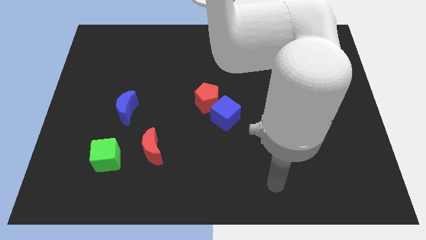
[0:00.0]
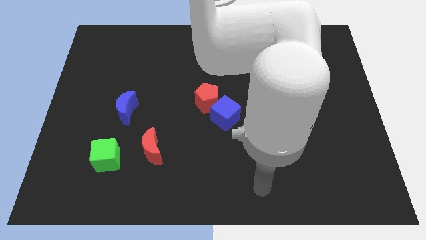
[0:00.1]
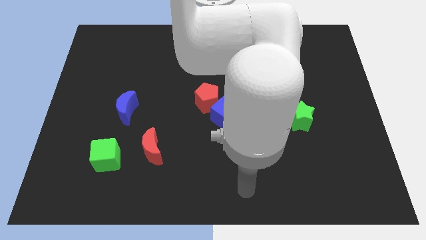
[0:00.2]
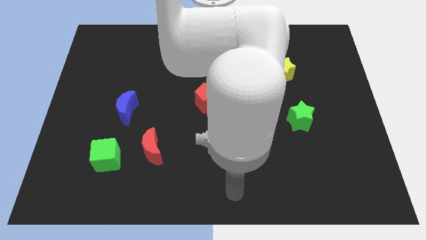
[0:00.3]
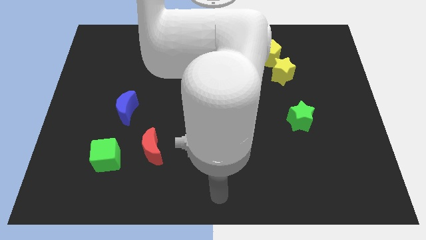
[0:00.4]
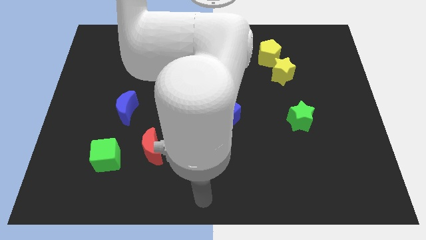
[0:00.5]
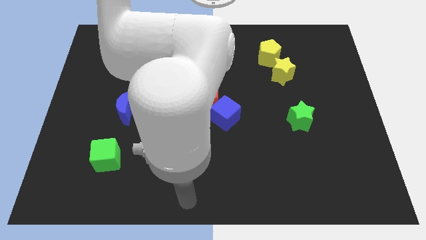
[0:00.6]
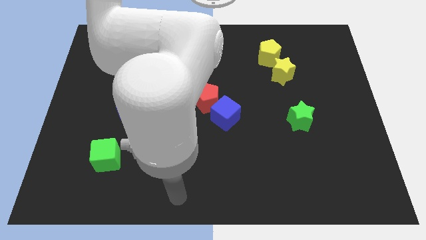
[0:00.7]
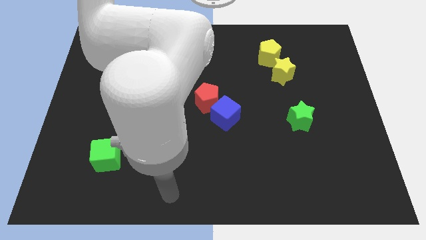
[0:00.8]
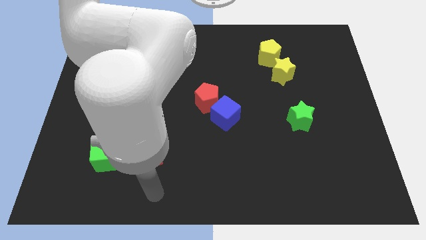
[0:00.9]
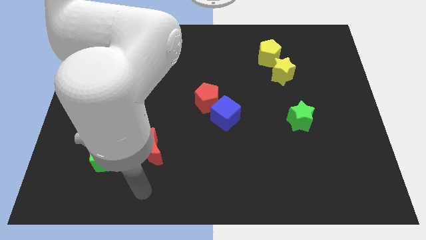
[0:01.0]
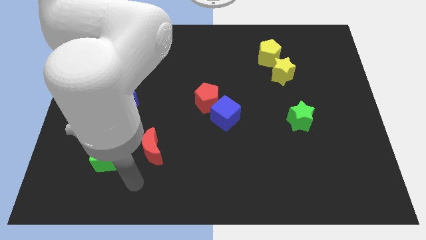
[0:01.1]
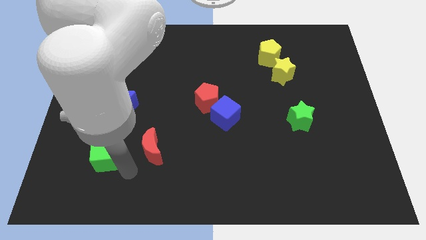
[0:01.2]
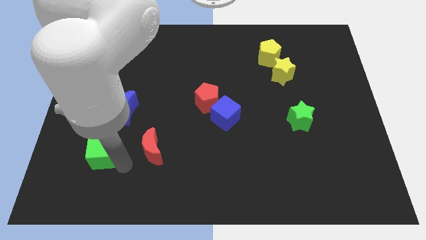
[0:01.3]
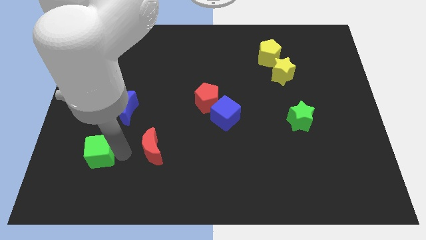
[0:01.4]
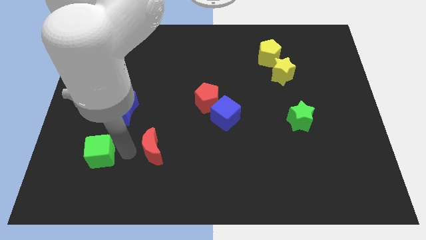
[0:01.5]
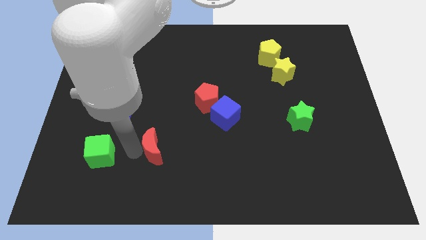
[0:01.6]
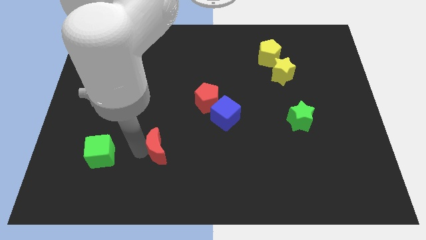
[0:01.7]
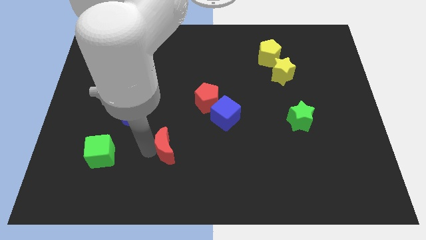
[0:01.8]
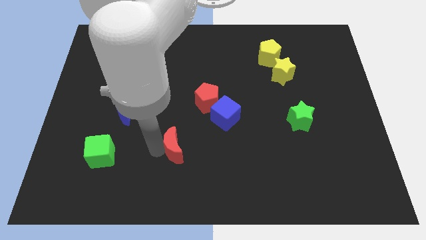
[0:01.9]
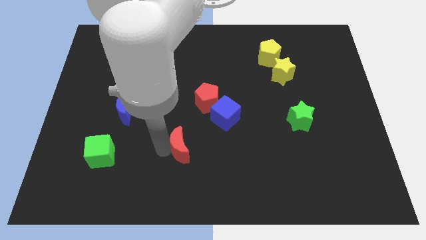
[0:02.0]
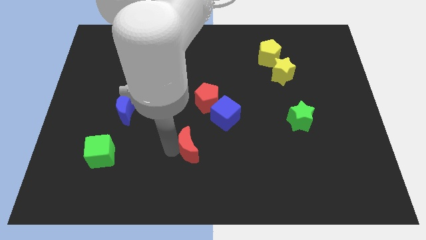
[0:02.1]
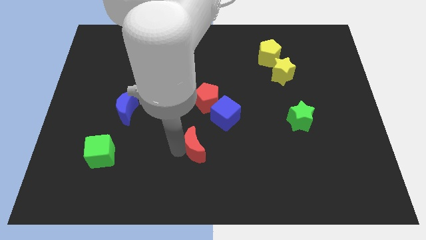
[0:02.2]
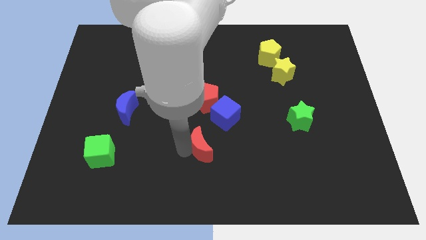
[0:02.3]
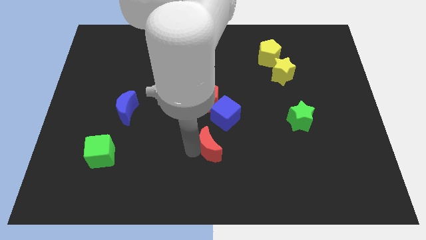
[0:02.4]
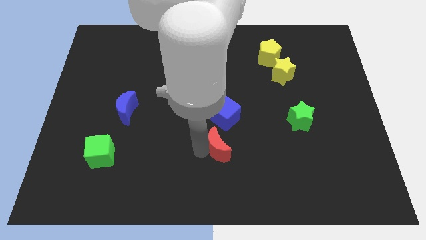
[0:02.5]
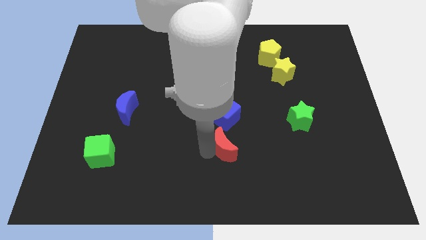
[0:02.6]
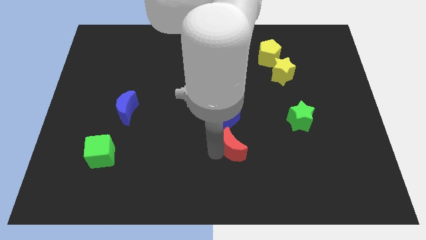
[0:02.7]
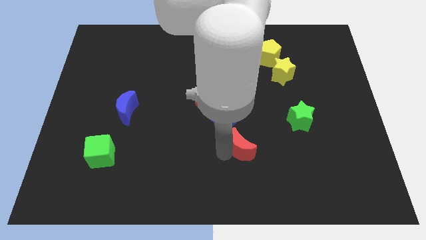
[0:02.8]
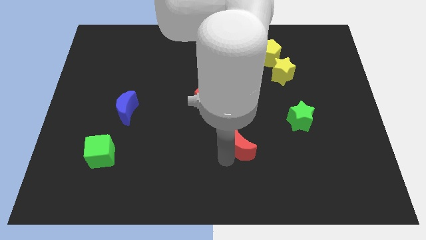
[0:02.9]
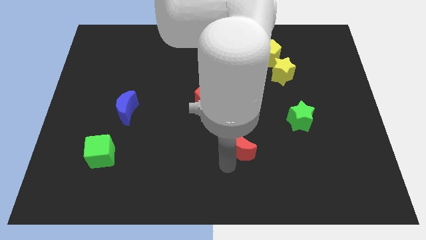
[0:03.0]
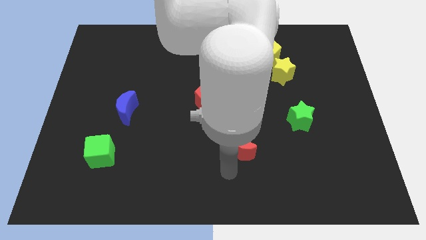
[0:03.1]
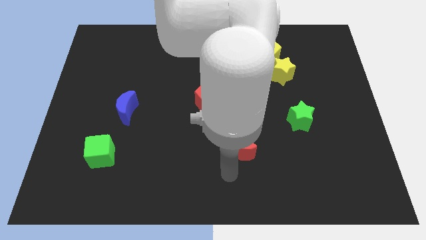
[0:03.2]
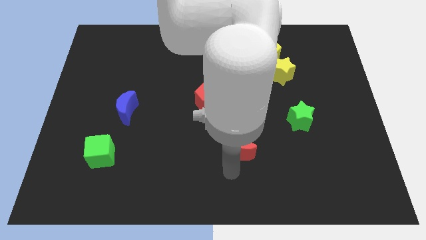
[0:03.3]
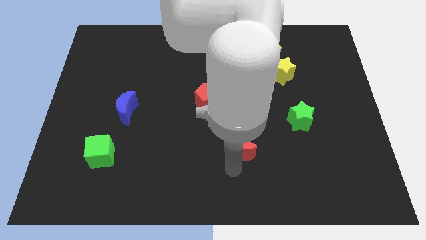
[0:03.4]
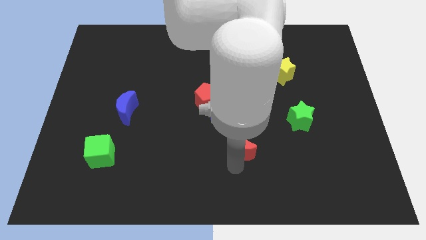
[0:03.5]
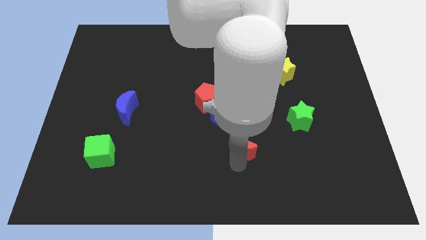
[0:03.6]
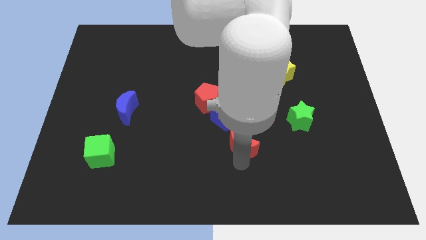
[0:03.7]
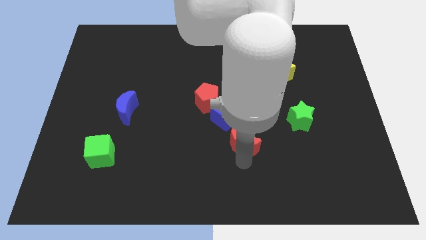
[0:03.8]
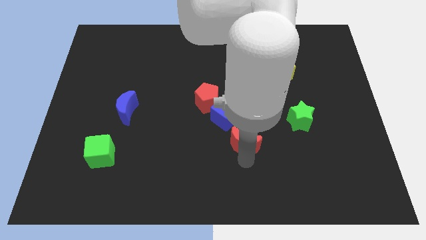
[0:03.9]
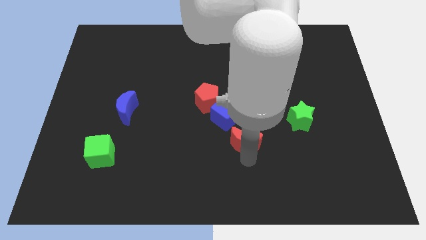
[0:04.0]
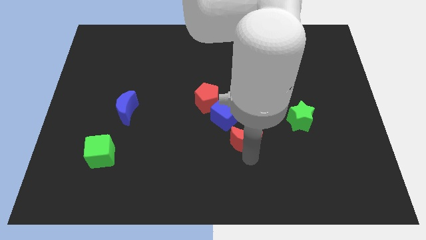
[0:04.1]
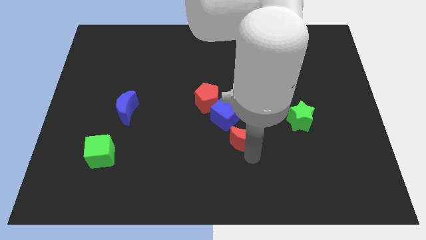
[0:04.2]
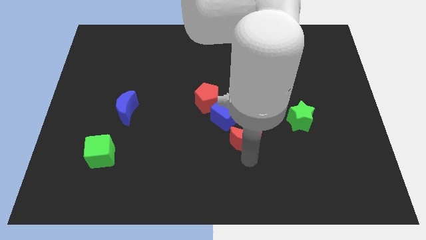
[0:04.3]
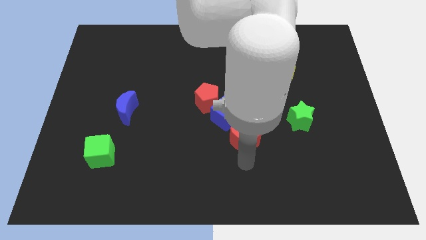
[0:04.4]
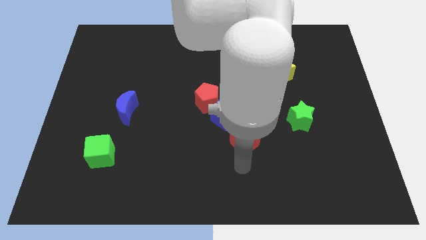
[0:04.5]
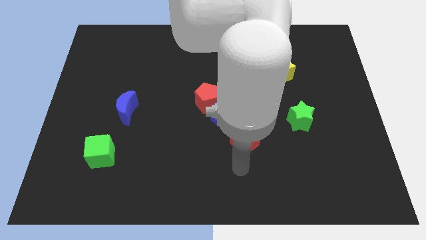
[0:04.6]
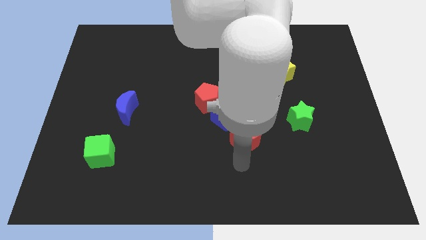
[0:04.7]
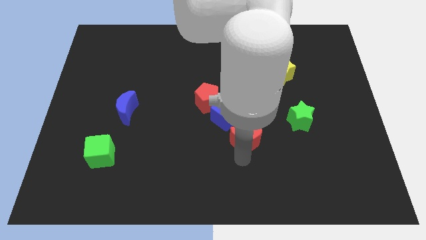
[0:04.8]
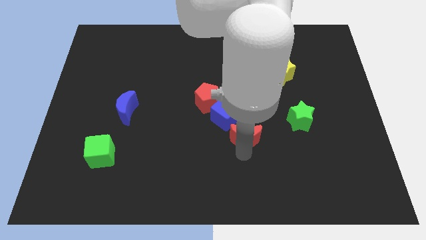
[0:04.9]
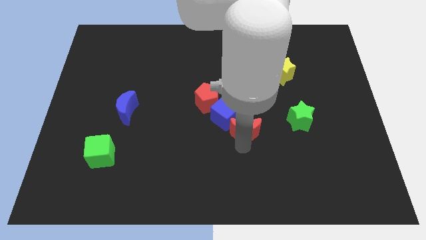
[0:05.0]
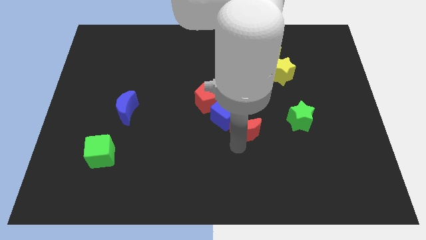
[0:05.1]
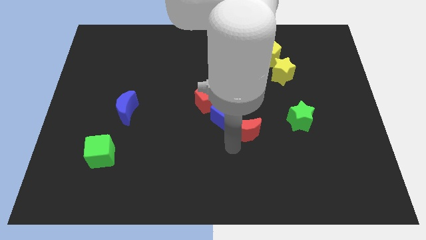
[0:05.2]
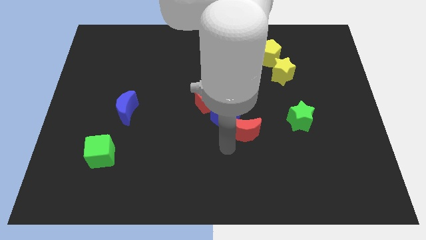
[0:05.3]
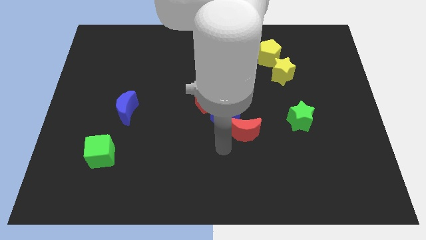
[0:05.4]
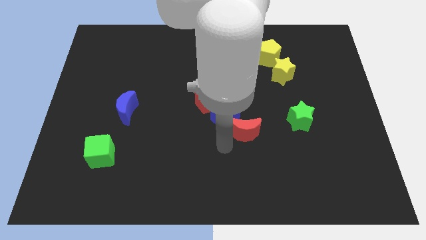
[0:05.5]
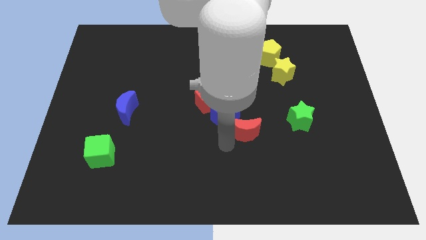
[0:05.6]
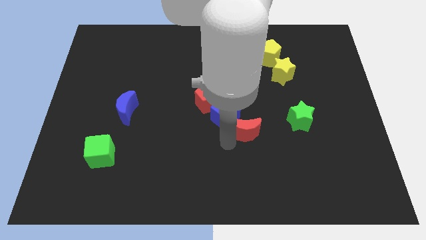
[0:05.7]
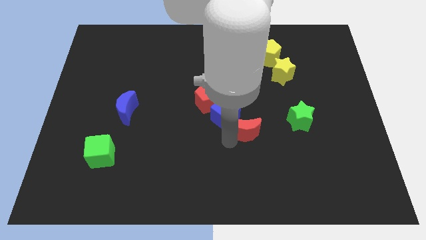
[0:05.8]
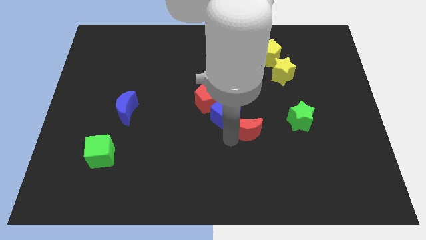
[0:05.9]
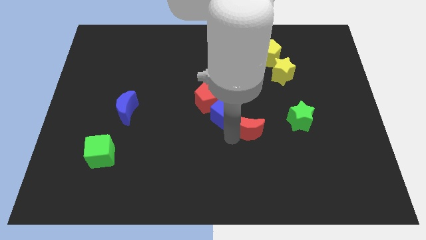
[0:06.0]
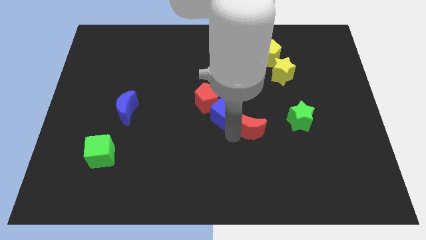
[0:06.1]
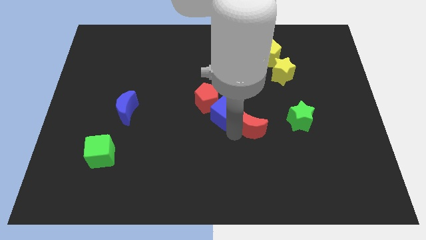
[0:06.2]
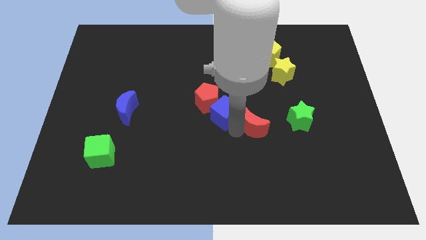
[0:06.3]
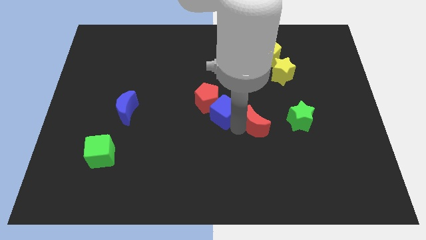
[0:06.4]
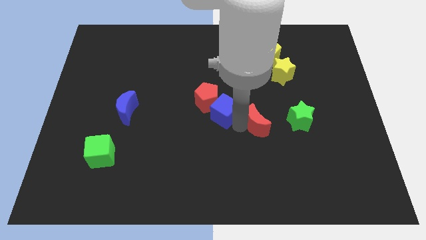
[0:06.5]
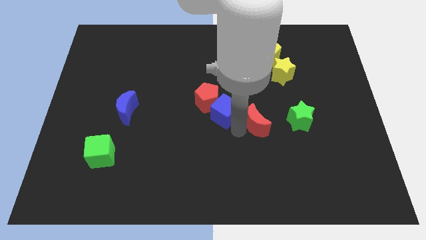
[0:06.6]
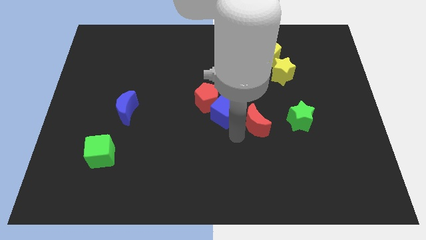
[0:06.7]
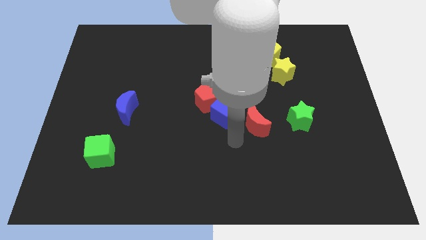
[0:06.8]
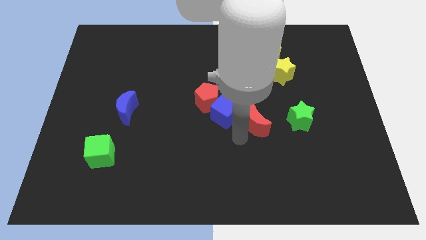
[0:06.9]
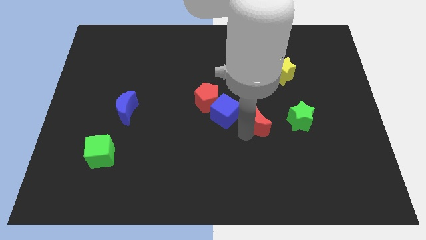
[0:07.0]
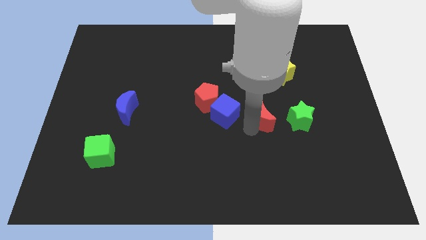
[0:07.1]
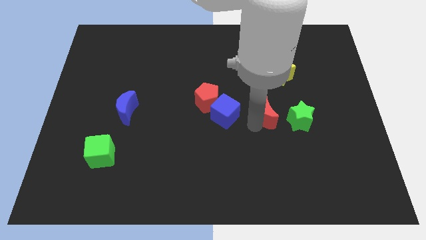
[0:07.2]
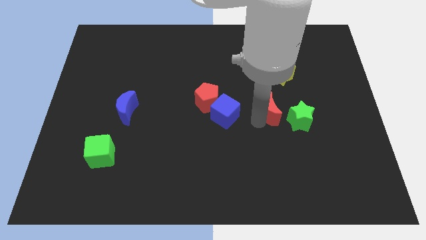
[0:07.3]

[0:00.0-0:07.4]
push the red moon below the yellow star

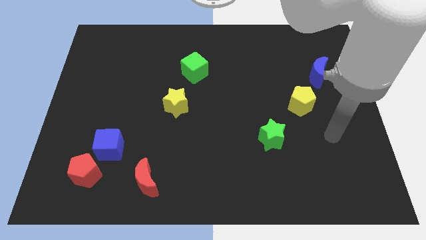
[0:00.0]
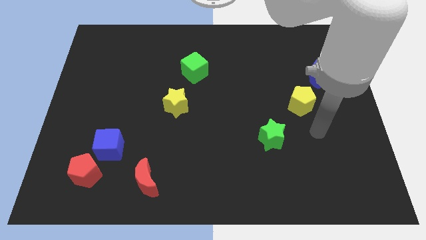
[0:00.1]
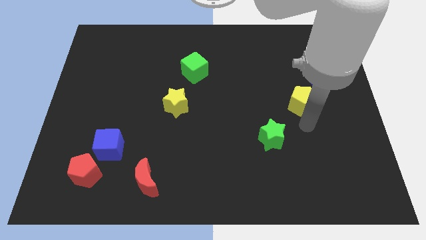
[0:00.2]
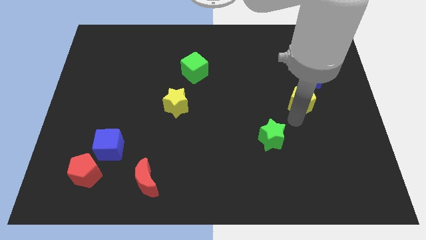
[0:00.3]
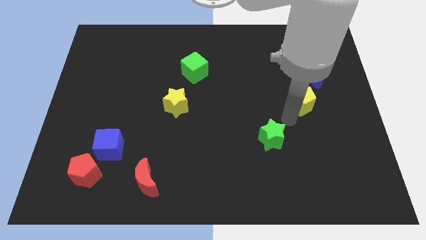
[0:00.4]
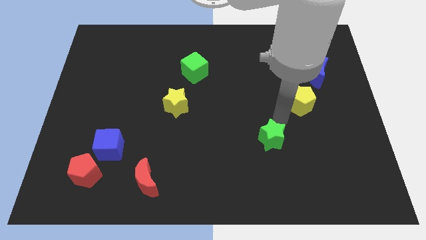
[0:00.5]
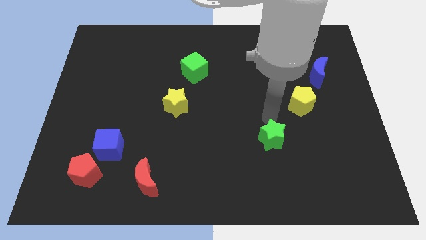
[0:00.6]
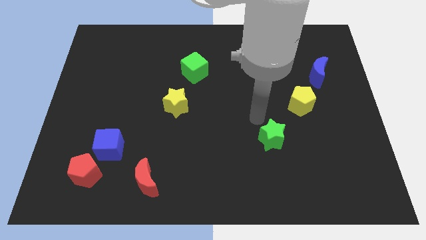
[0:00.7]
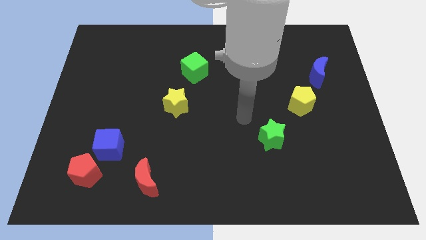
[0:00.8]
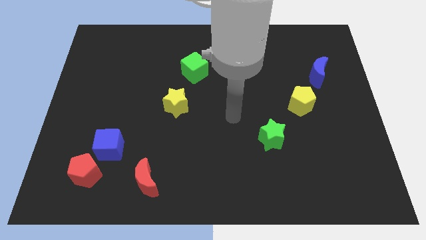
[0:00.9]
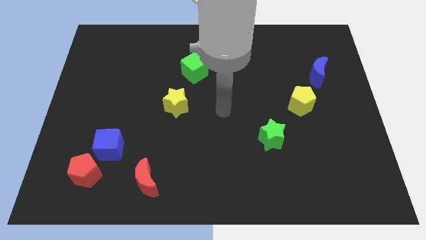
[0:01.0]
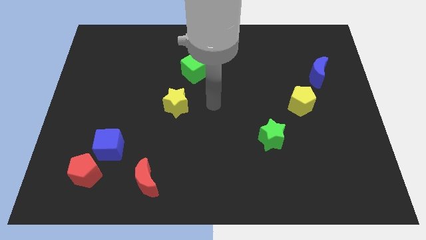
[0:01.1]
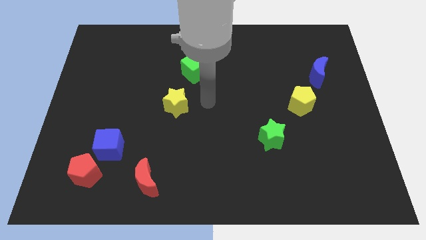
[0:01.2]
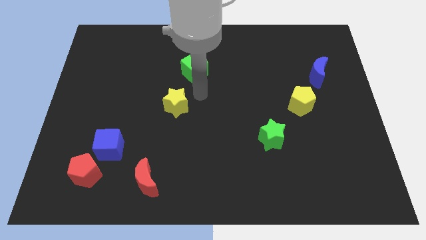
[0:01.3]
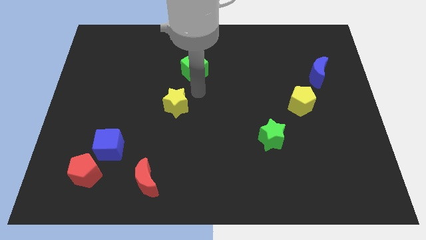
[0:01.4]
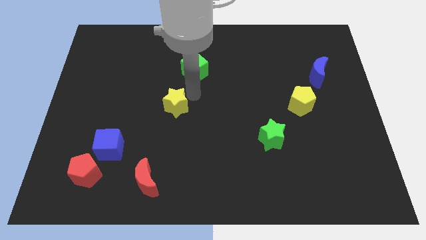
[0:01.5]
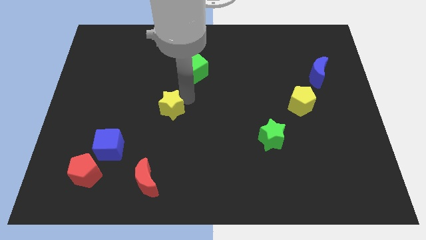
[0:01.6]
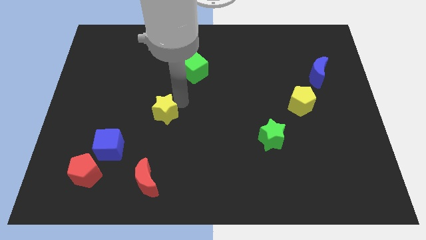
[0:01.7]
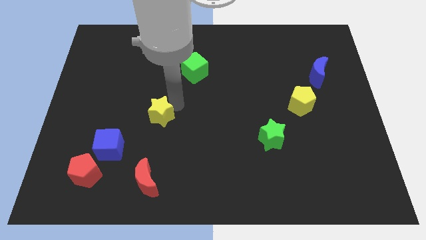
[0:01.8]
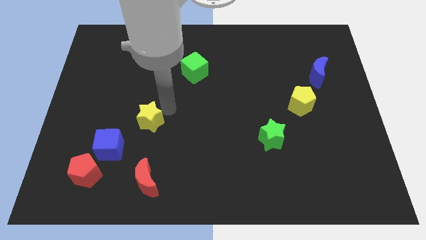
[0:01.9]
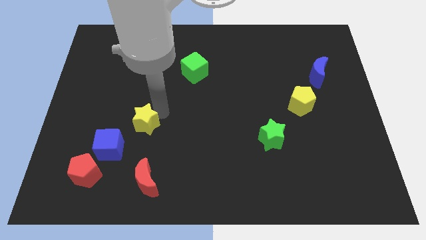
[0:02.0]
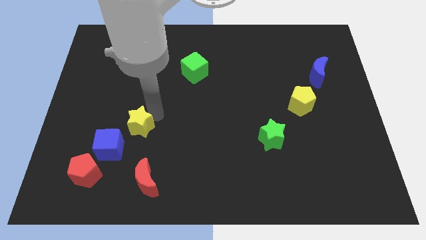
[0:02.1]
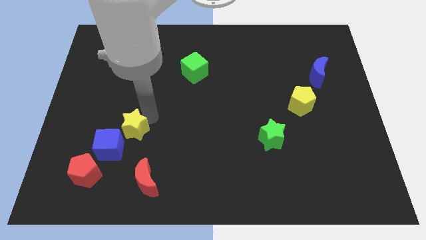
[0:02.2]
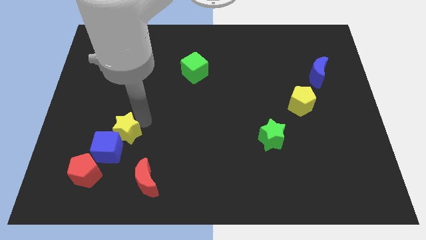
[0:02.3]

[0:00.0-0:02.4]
push the yellow star to the top right side of the red pentagon
